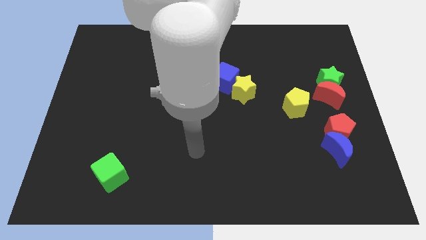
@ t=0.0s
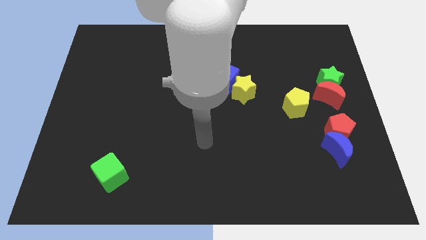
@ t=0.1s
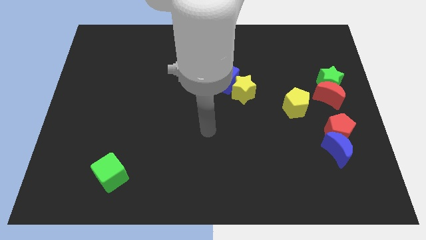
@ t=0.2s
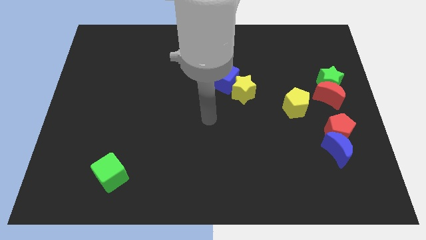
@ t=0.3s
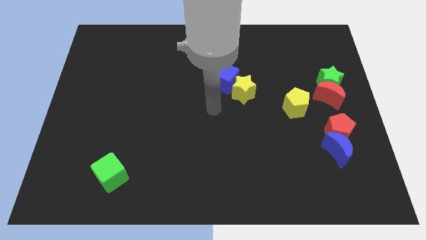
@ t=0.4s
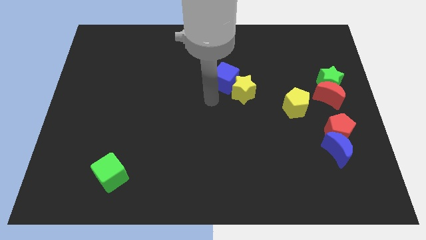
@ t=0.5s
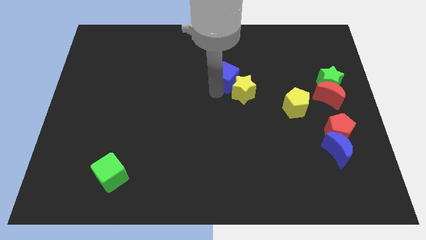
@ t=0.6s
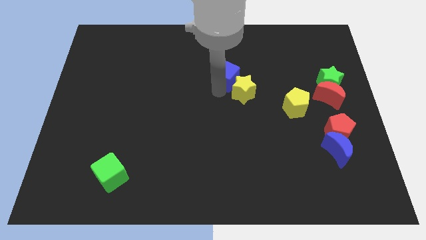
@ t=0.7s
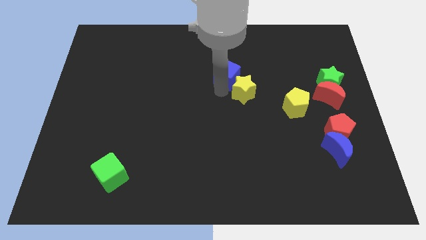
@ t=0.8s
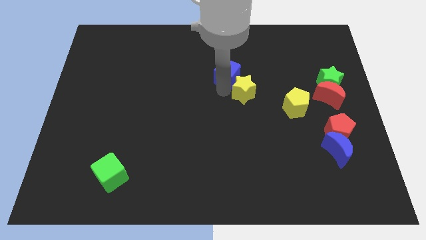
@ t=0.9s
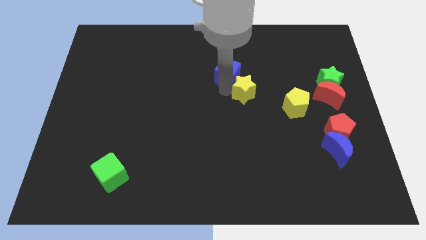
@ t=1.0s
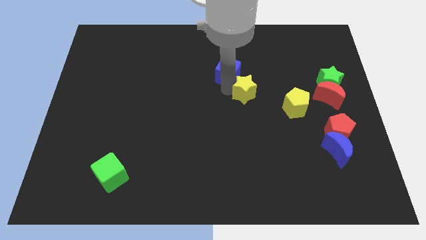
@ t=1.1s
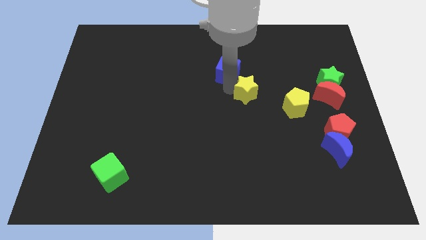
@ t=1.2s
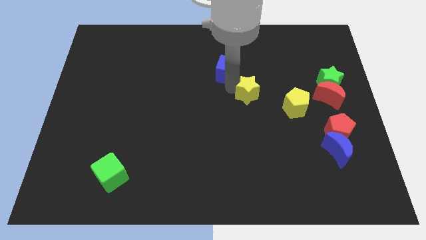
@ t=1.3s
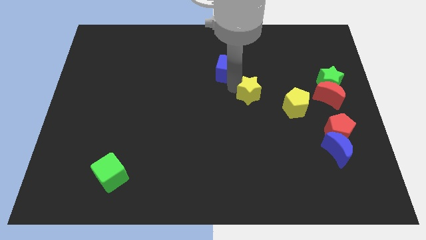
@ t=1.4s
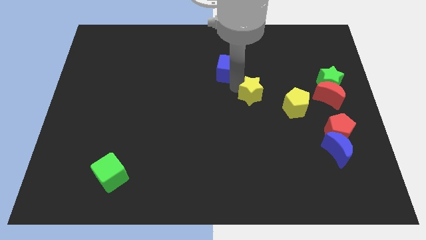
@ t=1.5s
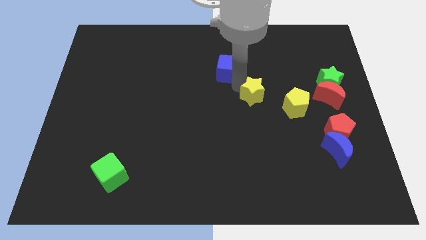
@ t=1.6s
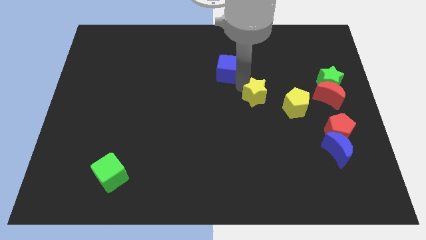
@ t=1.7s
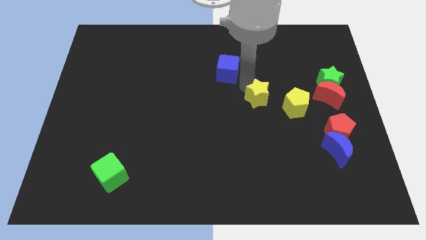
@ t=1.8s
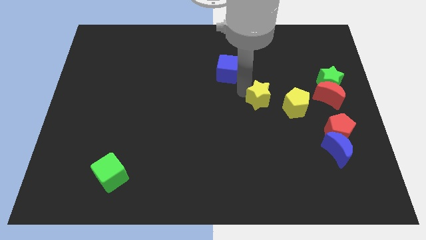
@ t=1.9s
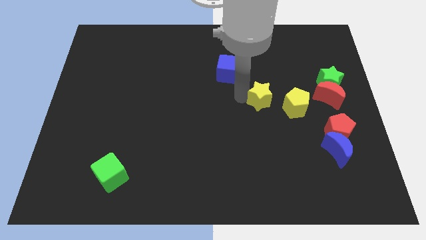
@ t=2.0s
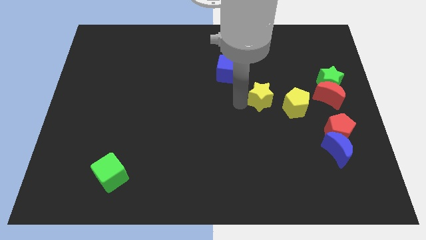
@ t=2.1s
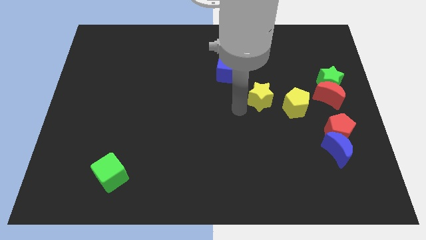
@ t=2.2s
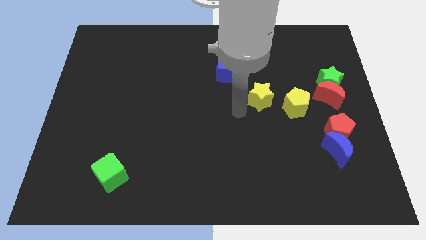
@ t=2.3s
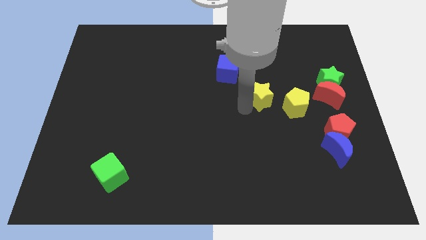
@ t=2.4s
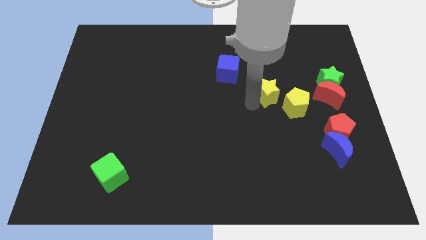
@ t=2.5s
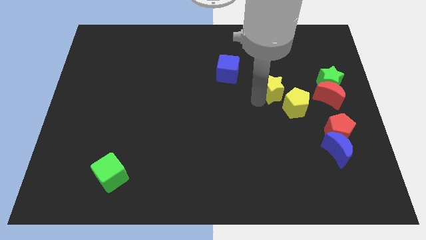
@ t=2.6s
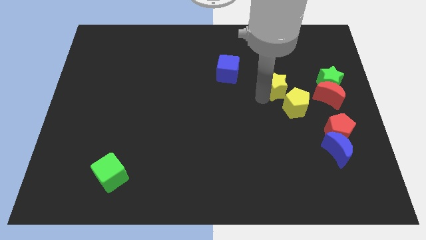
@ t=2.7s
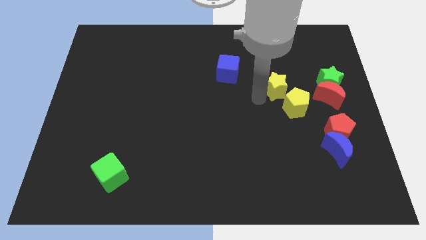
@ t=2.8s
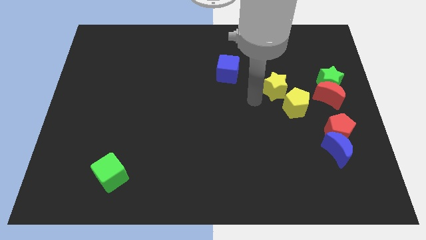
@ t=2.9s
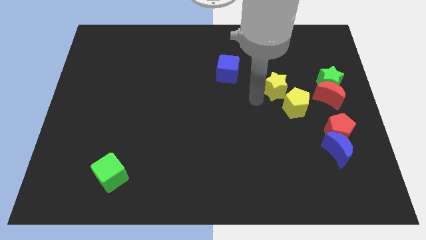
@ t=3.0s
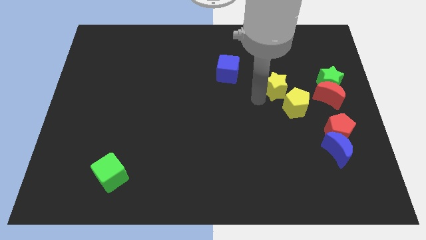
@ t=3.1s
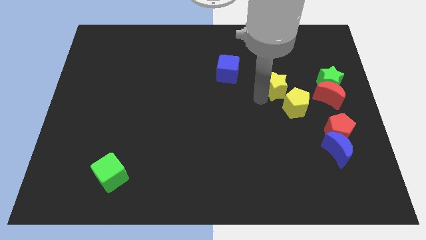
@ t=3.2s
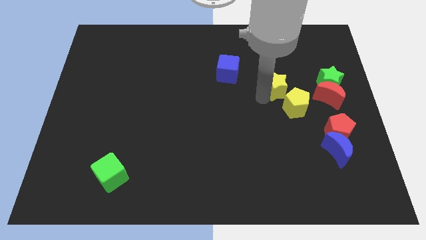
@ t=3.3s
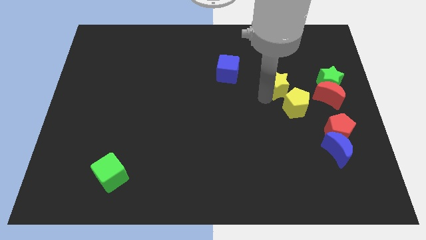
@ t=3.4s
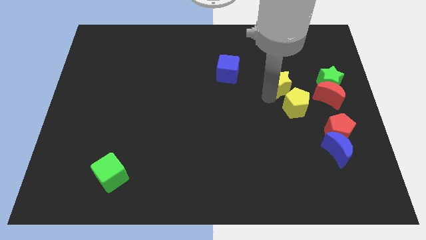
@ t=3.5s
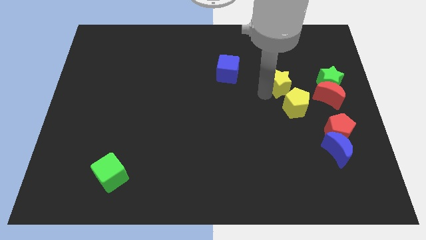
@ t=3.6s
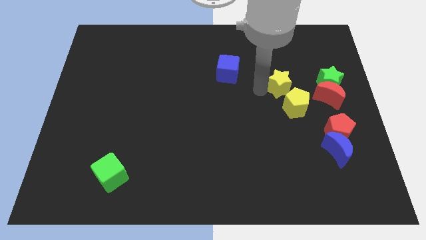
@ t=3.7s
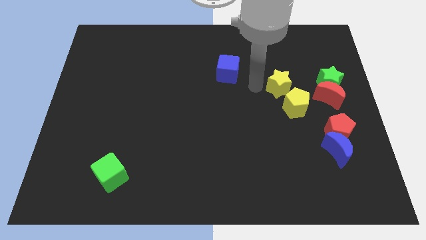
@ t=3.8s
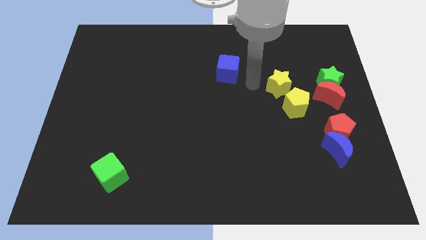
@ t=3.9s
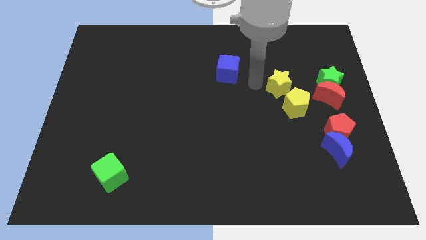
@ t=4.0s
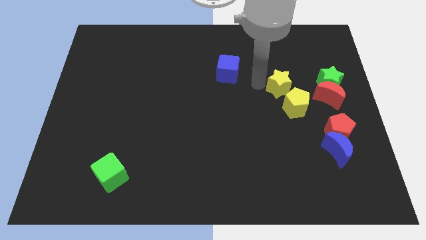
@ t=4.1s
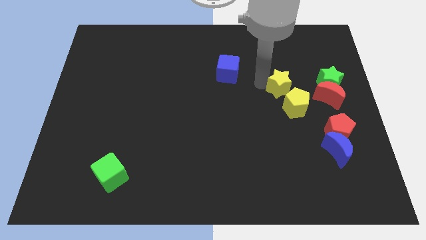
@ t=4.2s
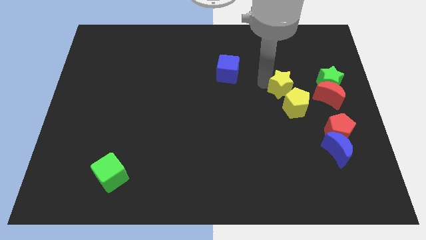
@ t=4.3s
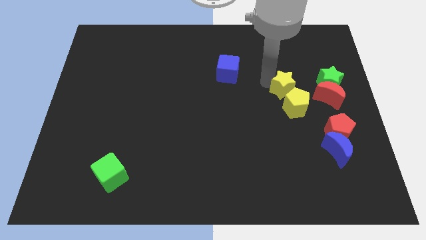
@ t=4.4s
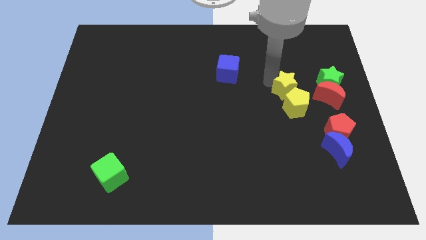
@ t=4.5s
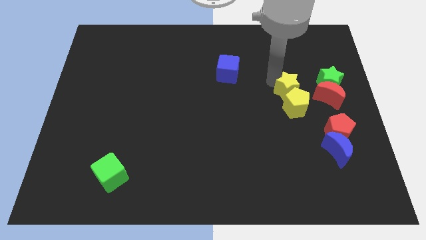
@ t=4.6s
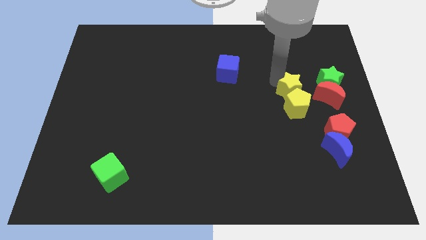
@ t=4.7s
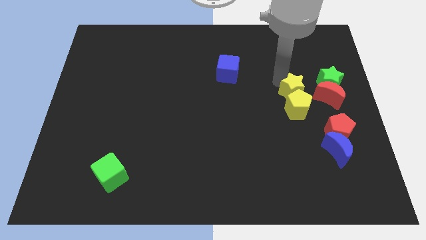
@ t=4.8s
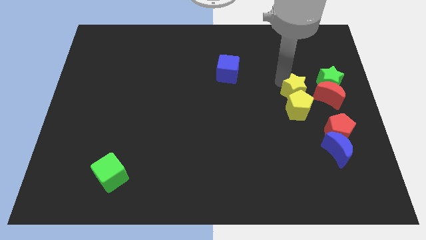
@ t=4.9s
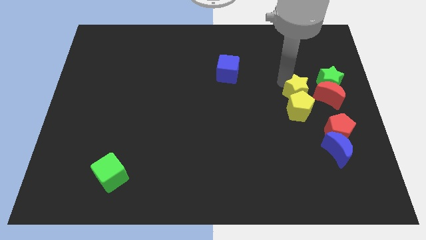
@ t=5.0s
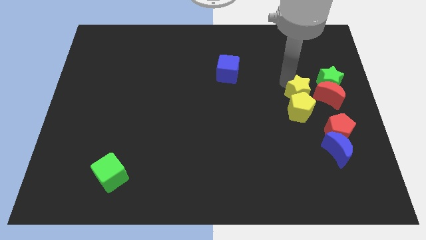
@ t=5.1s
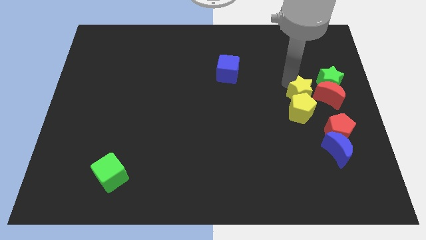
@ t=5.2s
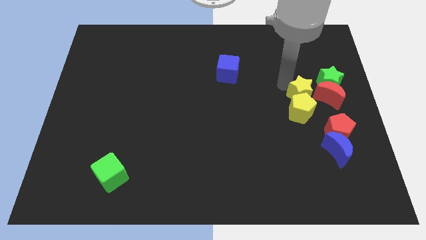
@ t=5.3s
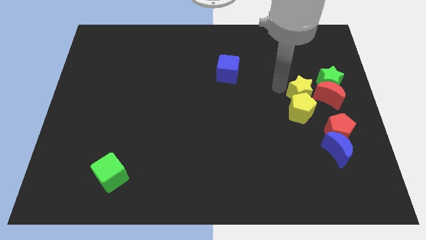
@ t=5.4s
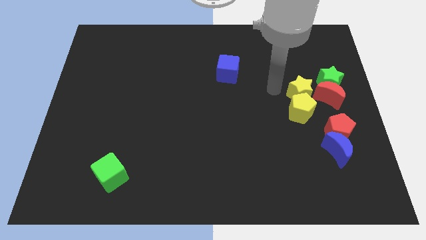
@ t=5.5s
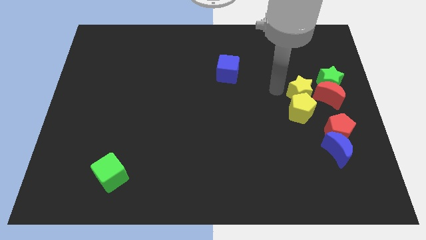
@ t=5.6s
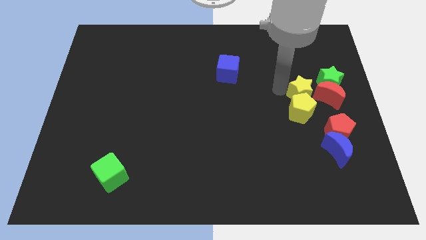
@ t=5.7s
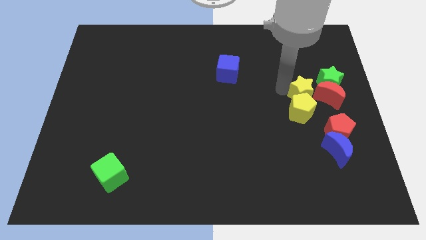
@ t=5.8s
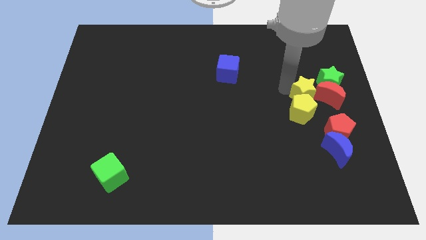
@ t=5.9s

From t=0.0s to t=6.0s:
put the yellow star towards the red moon

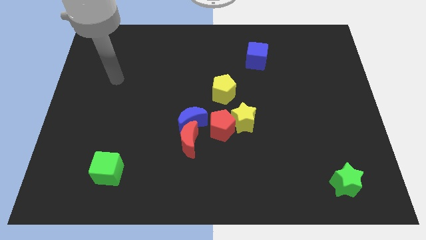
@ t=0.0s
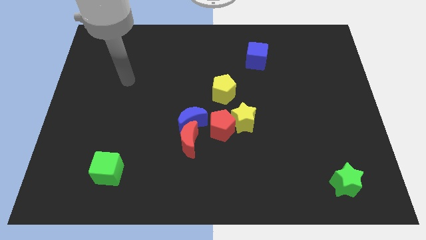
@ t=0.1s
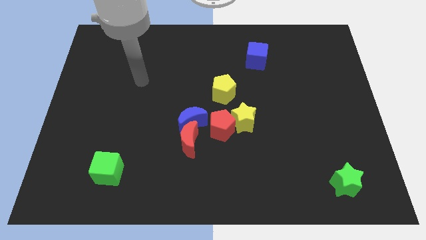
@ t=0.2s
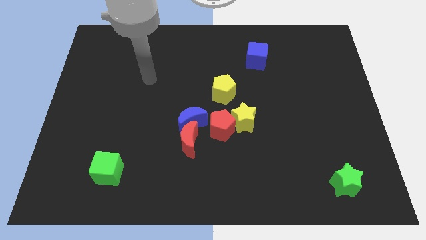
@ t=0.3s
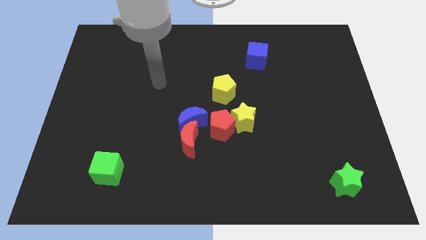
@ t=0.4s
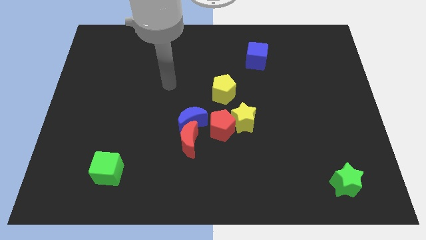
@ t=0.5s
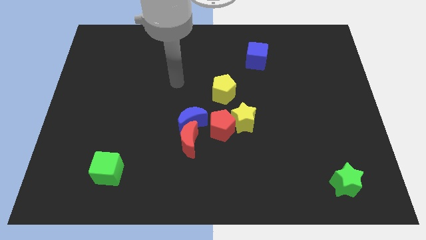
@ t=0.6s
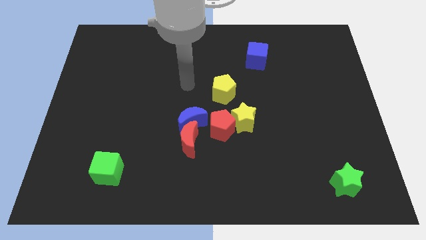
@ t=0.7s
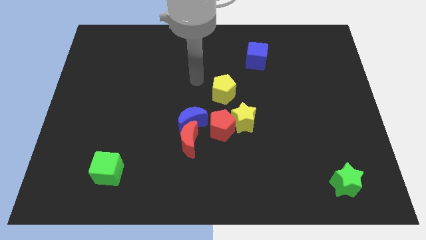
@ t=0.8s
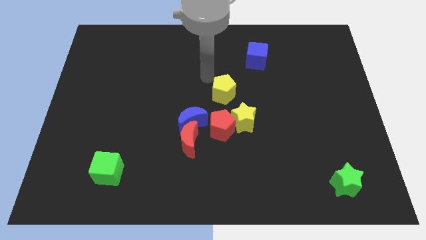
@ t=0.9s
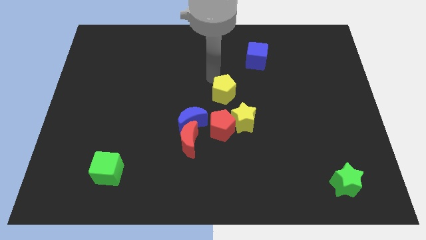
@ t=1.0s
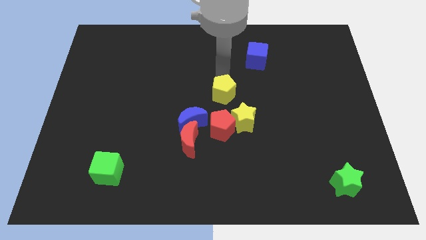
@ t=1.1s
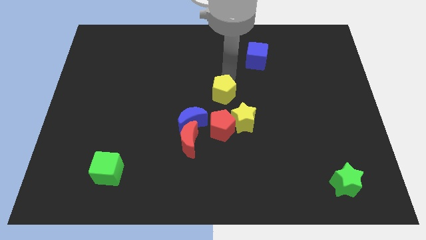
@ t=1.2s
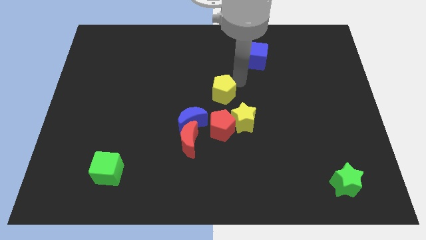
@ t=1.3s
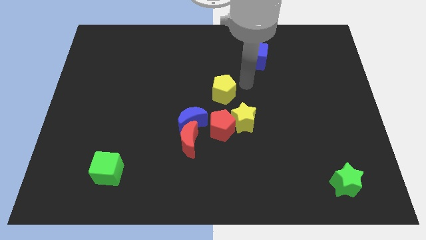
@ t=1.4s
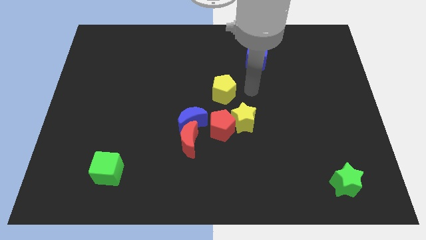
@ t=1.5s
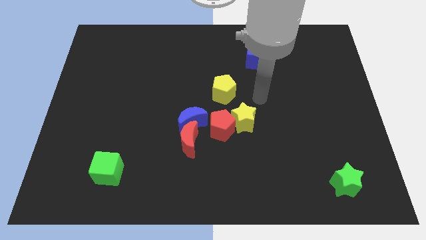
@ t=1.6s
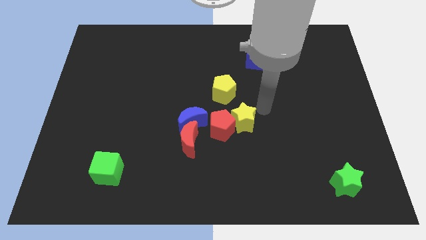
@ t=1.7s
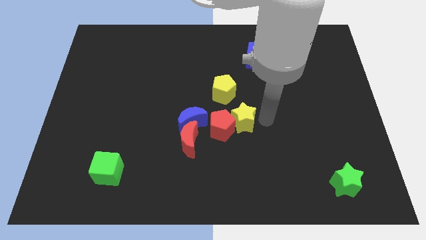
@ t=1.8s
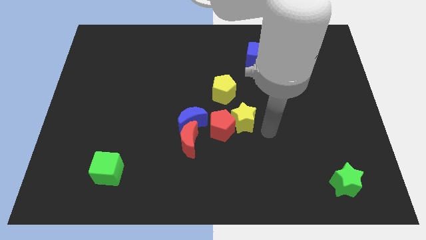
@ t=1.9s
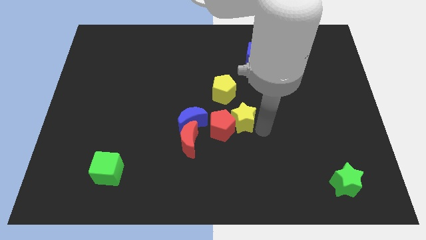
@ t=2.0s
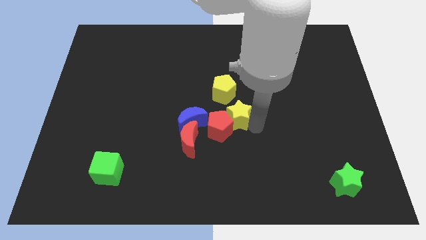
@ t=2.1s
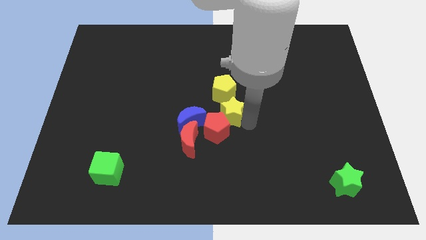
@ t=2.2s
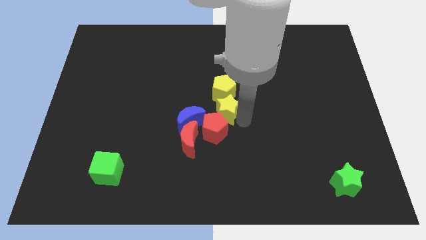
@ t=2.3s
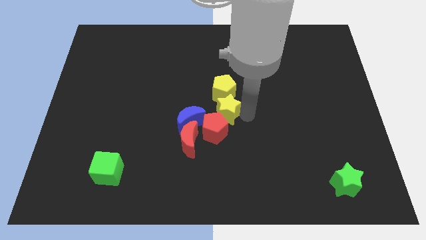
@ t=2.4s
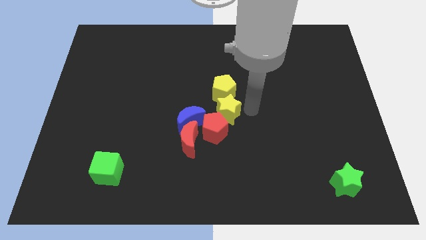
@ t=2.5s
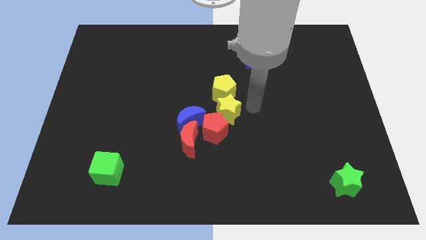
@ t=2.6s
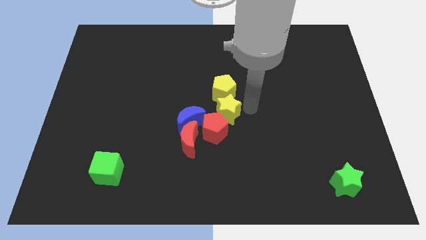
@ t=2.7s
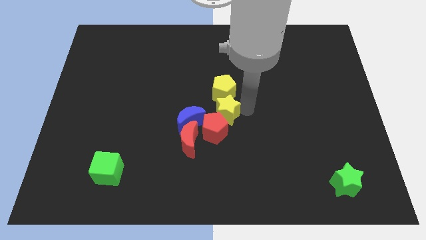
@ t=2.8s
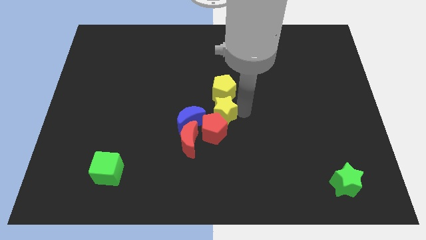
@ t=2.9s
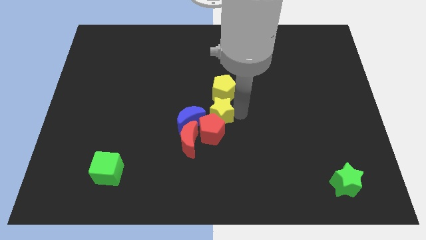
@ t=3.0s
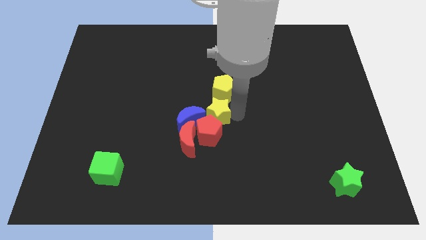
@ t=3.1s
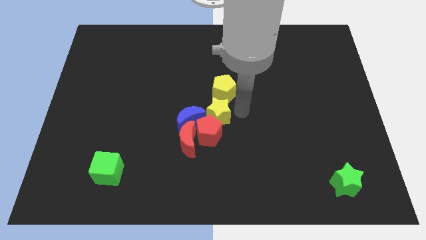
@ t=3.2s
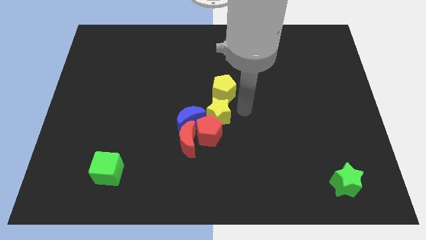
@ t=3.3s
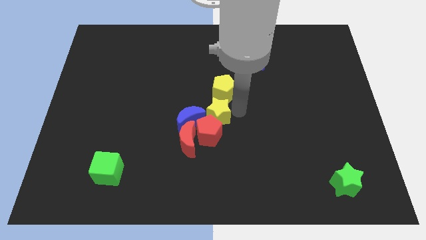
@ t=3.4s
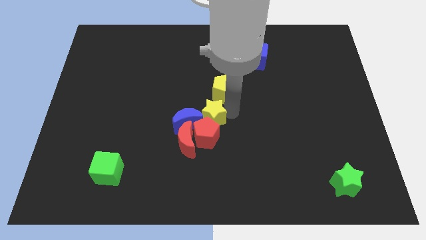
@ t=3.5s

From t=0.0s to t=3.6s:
slide the yellow star towards the blue moon
